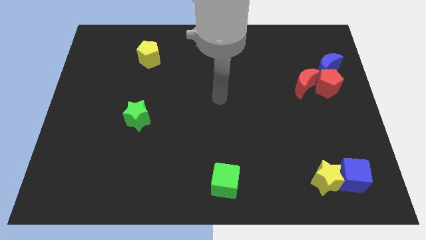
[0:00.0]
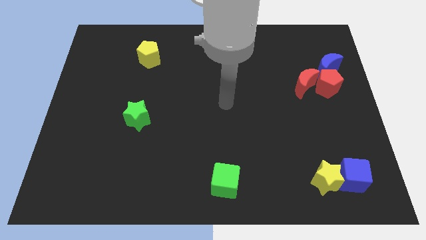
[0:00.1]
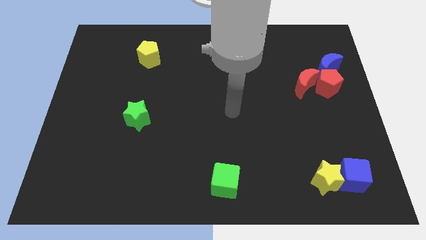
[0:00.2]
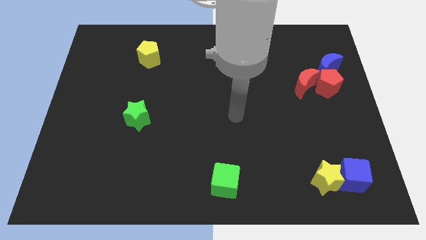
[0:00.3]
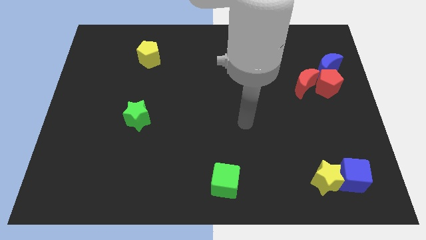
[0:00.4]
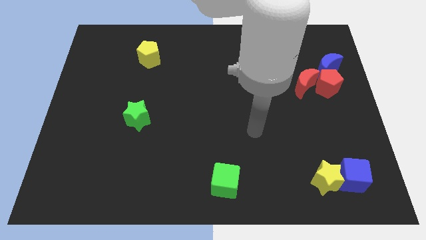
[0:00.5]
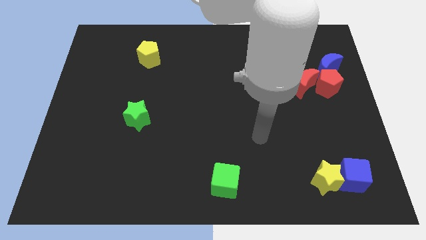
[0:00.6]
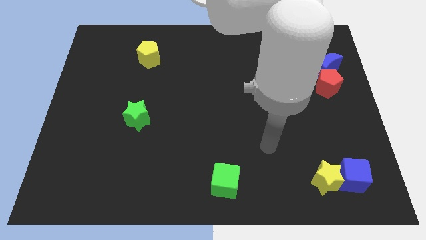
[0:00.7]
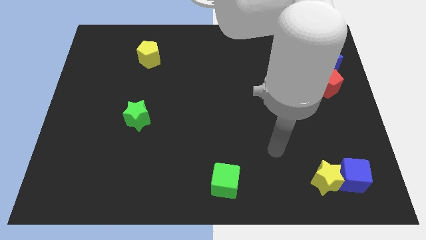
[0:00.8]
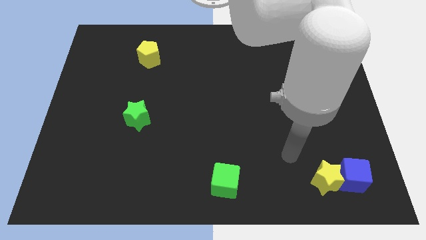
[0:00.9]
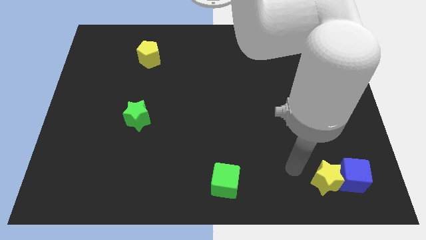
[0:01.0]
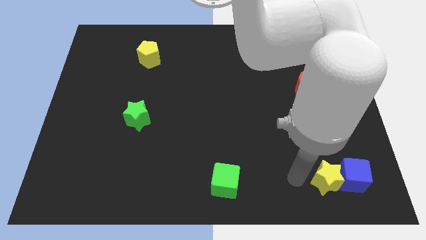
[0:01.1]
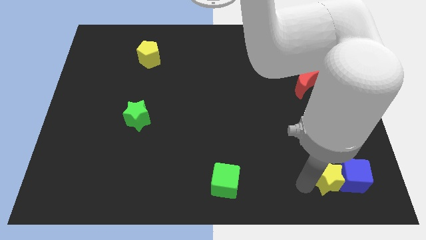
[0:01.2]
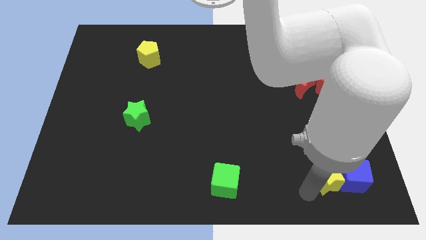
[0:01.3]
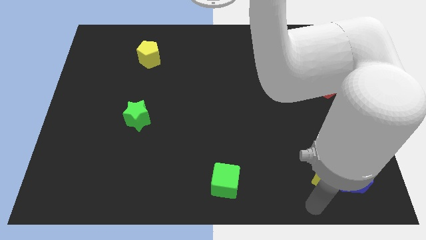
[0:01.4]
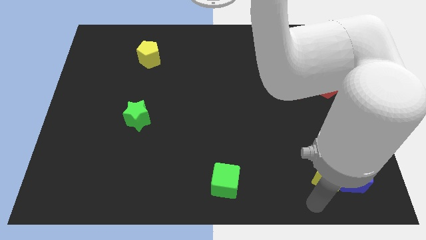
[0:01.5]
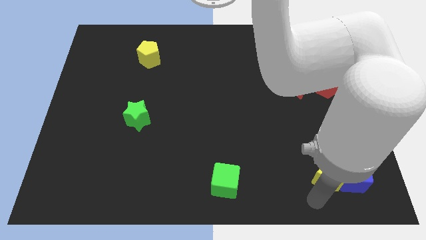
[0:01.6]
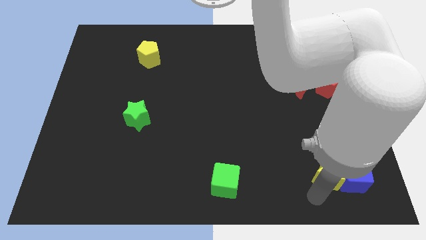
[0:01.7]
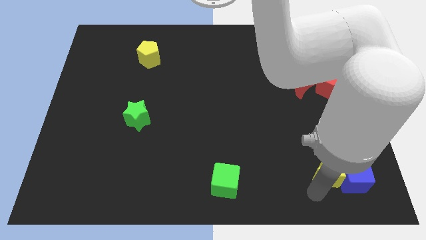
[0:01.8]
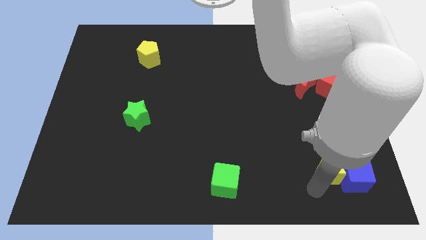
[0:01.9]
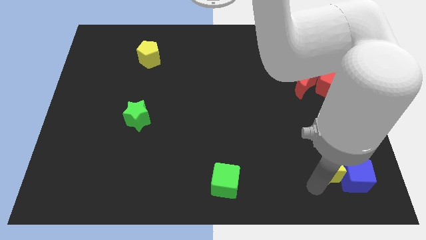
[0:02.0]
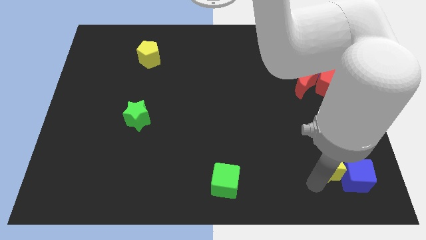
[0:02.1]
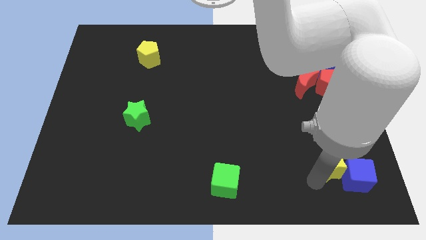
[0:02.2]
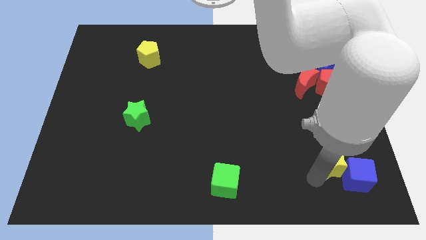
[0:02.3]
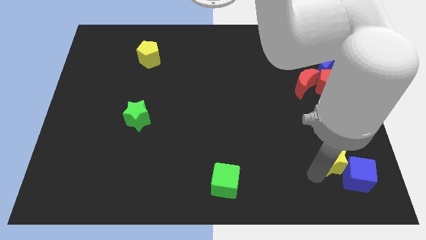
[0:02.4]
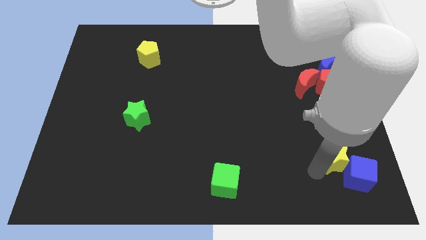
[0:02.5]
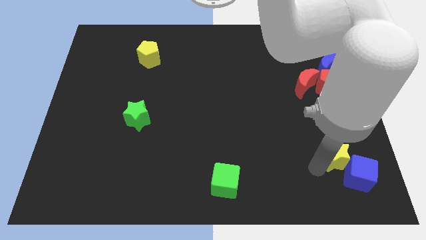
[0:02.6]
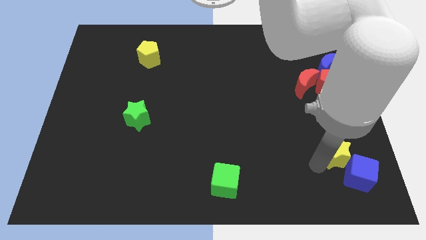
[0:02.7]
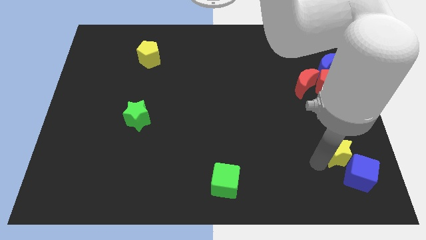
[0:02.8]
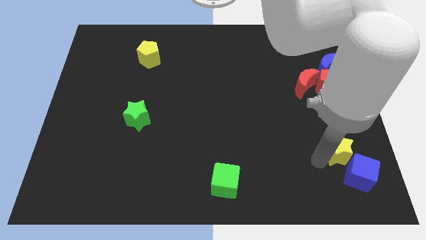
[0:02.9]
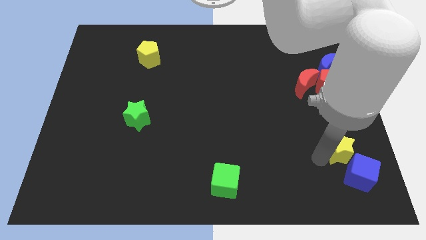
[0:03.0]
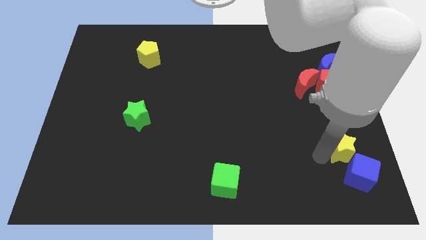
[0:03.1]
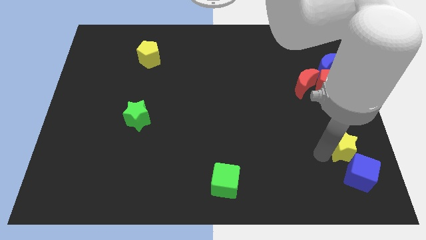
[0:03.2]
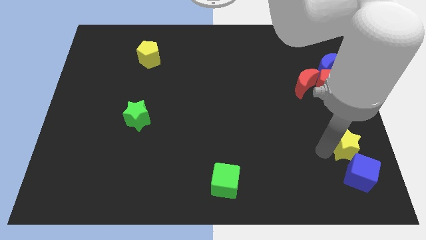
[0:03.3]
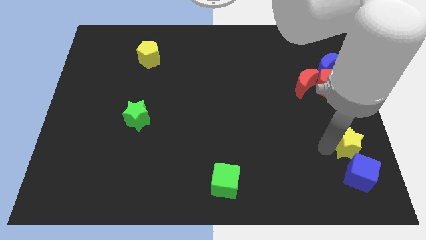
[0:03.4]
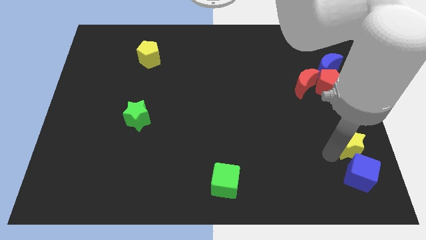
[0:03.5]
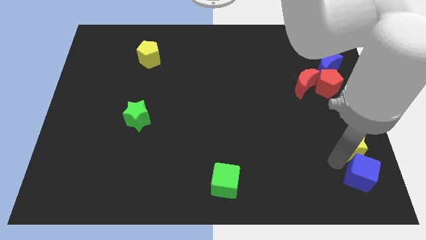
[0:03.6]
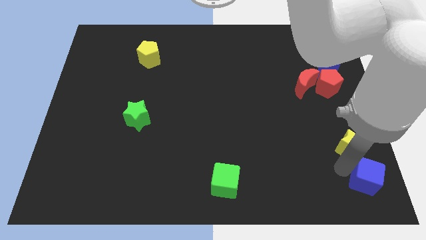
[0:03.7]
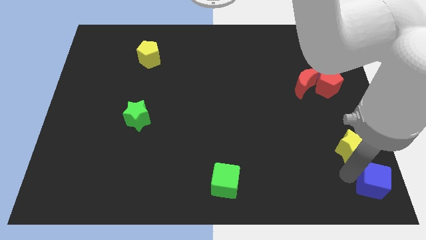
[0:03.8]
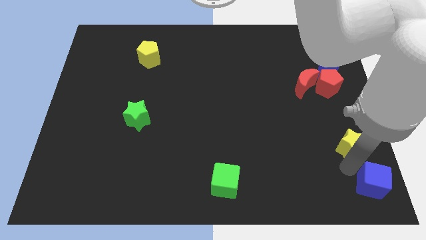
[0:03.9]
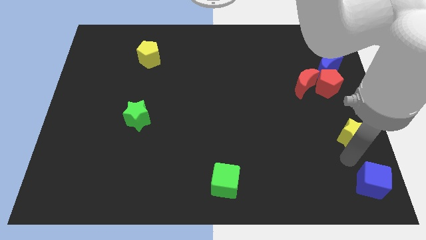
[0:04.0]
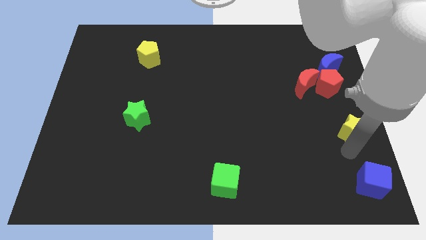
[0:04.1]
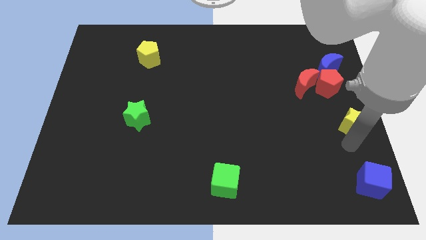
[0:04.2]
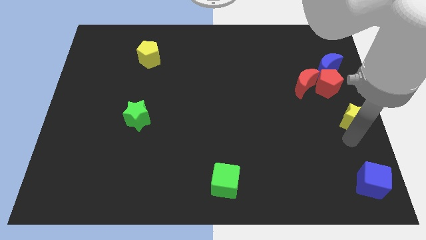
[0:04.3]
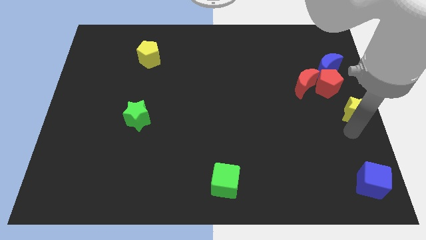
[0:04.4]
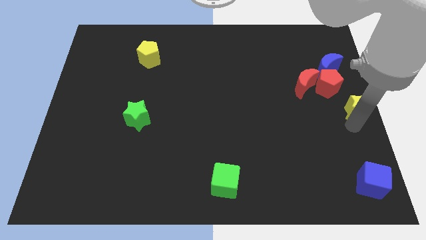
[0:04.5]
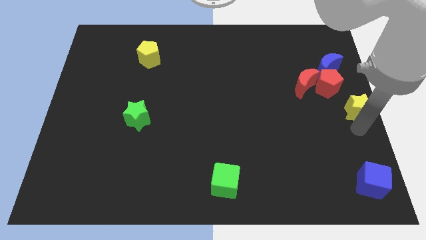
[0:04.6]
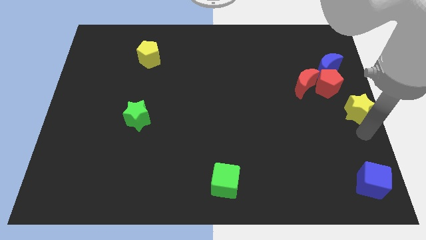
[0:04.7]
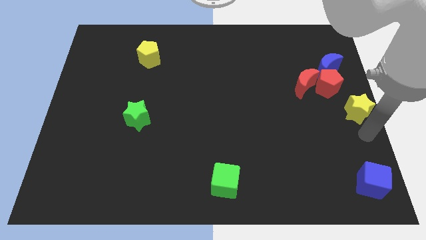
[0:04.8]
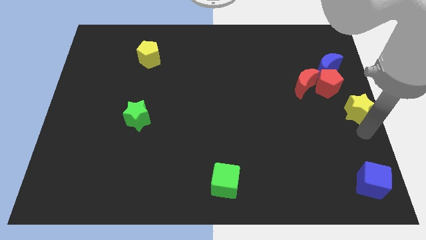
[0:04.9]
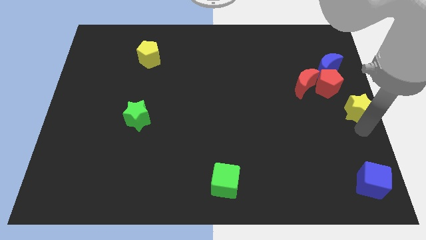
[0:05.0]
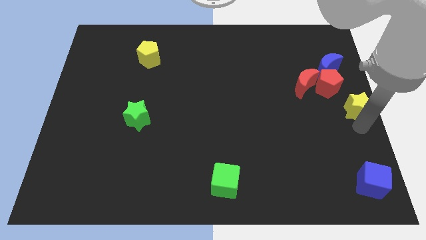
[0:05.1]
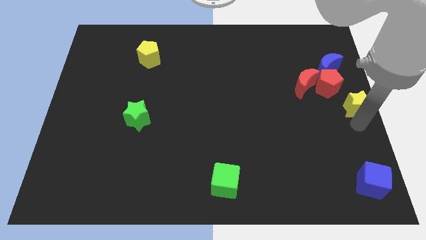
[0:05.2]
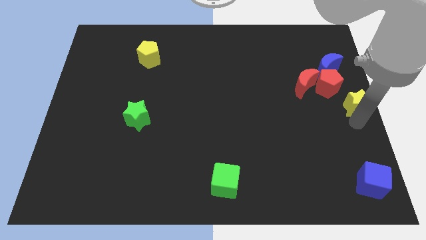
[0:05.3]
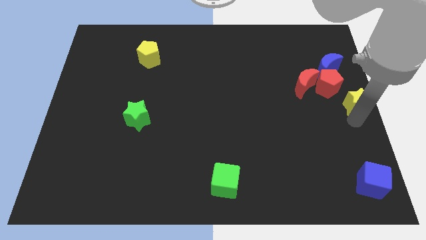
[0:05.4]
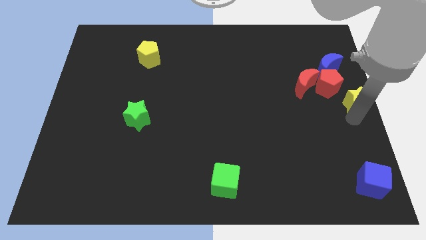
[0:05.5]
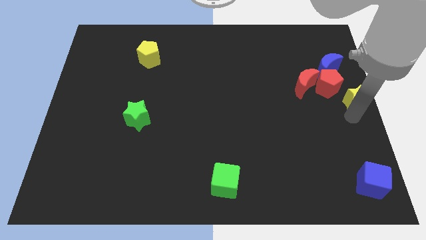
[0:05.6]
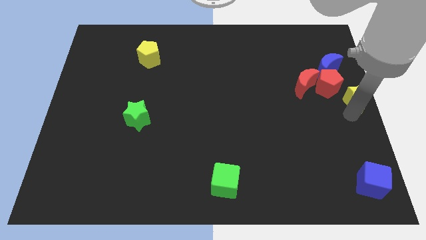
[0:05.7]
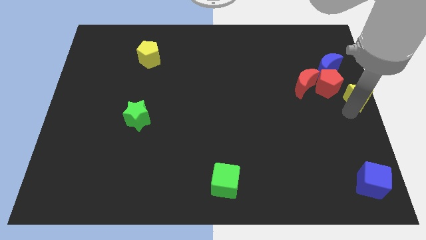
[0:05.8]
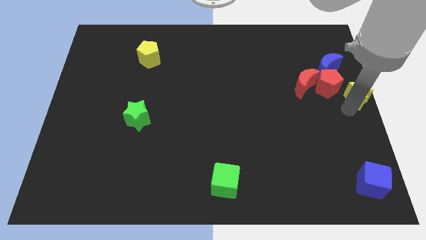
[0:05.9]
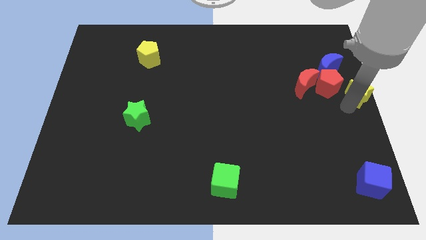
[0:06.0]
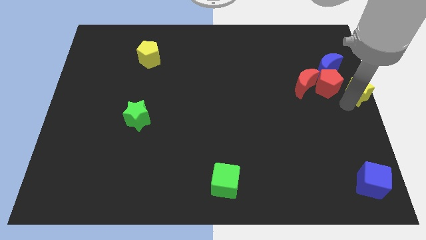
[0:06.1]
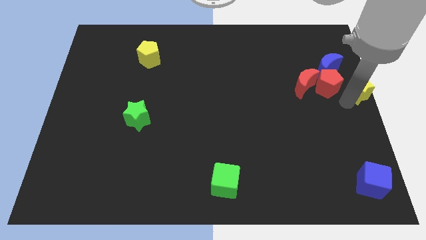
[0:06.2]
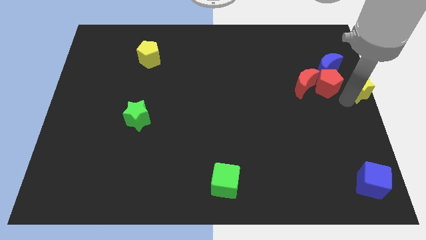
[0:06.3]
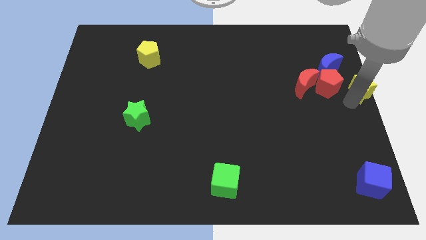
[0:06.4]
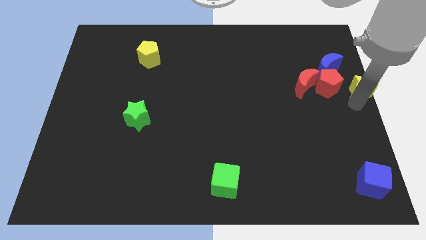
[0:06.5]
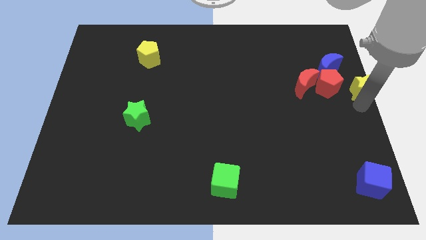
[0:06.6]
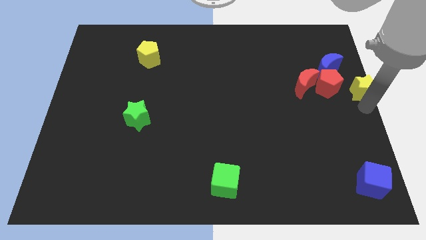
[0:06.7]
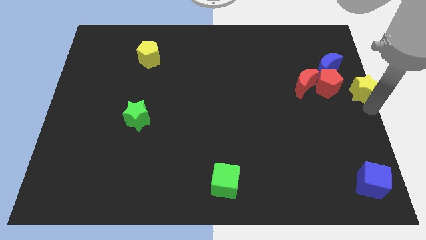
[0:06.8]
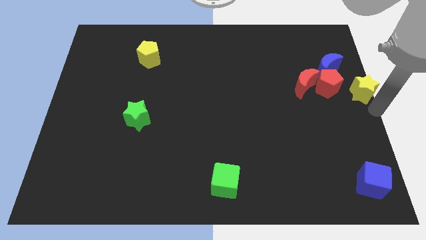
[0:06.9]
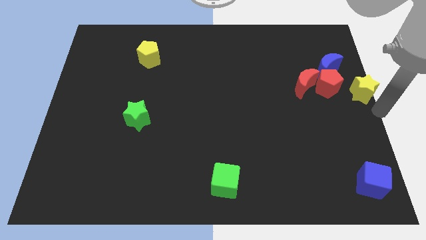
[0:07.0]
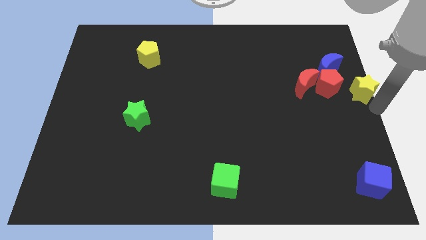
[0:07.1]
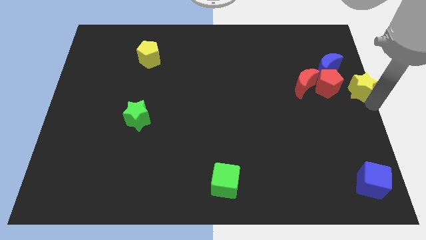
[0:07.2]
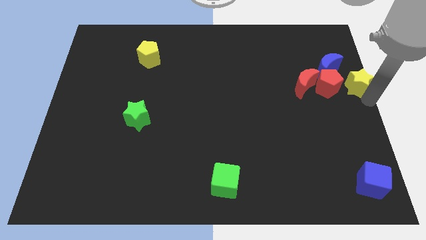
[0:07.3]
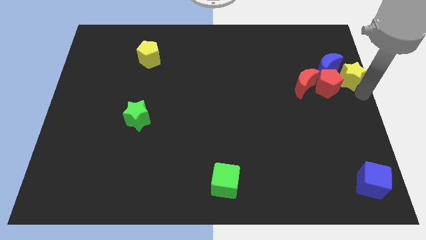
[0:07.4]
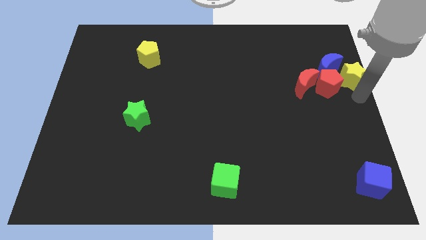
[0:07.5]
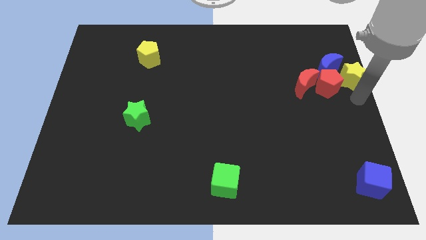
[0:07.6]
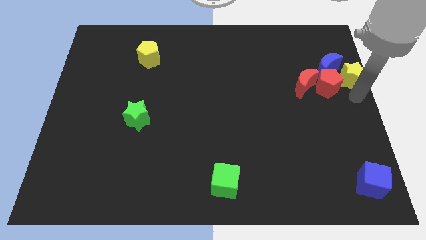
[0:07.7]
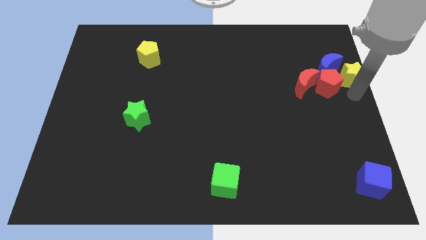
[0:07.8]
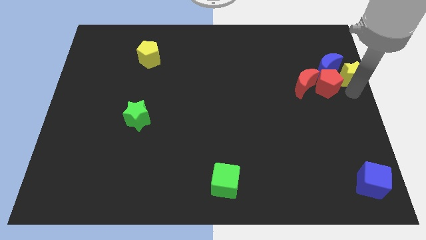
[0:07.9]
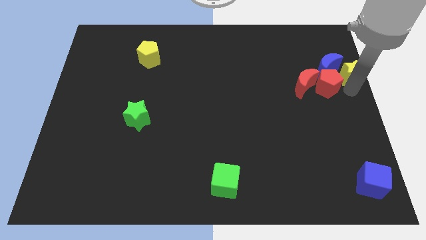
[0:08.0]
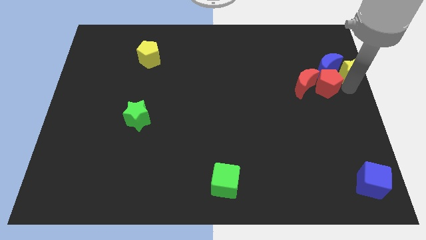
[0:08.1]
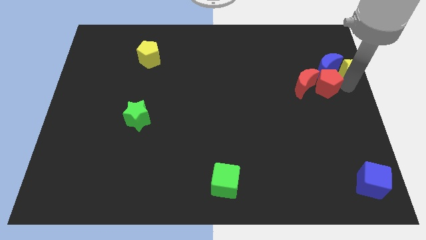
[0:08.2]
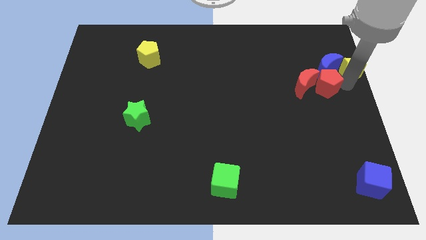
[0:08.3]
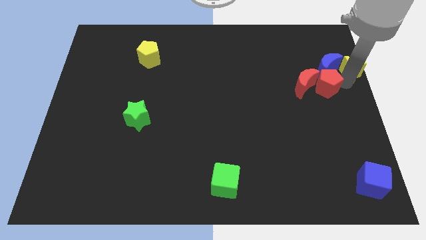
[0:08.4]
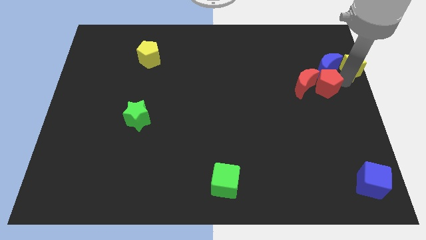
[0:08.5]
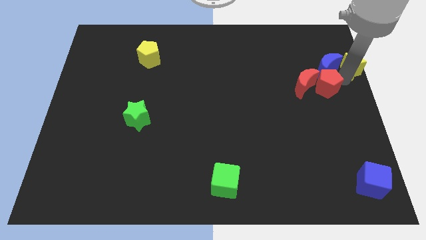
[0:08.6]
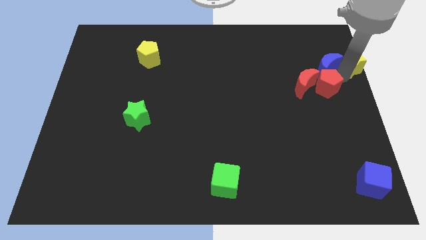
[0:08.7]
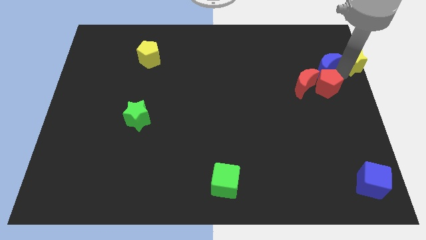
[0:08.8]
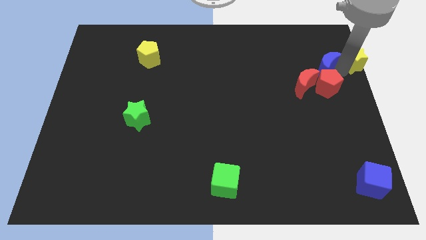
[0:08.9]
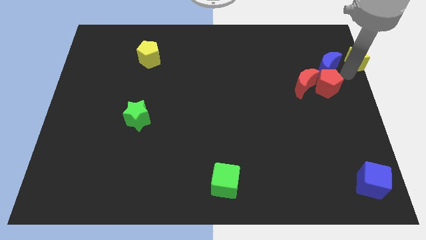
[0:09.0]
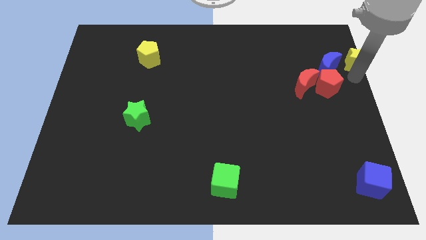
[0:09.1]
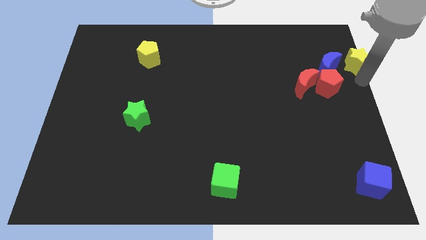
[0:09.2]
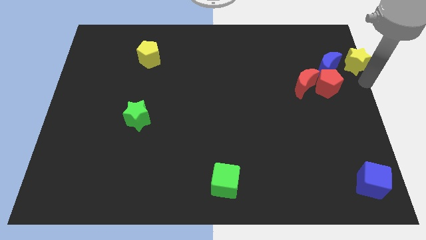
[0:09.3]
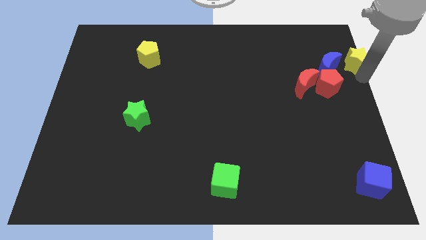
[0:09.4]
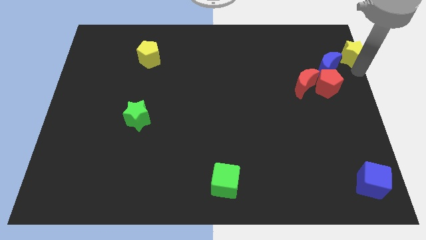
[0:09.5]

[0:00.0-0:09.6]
slide the yellow star to the top right
